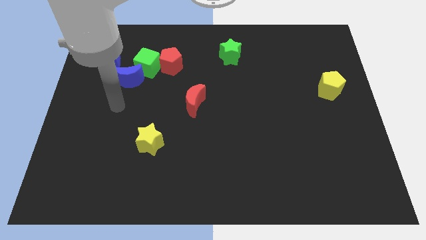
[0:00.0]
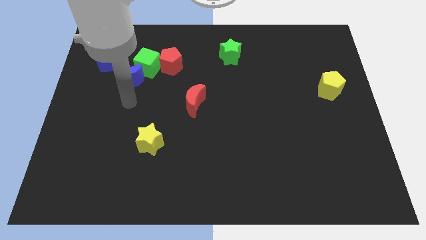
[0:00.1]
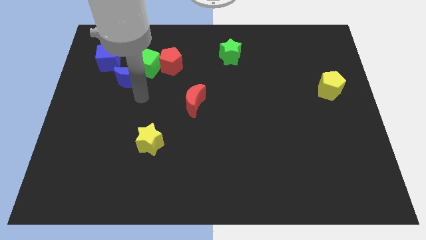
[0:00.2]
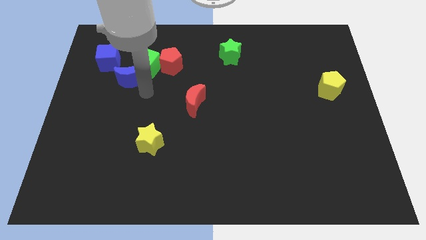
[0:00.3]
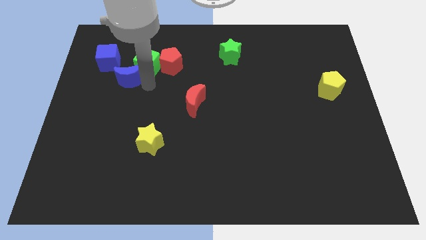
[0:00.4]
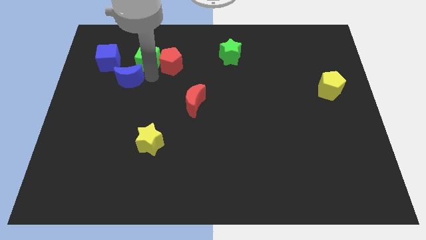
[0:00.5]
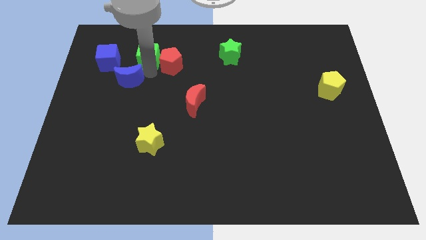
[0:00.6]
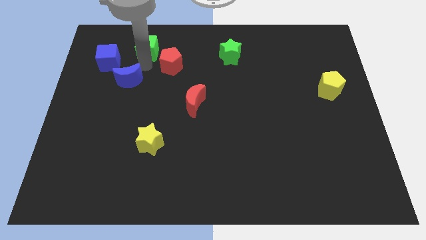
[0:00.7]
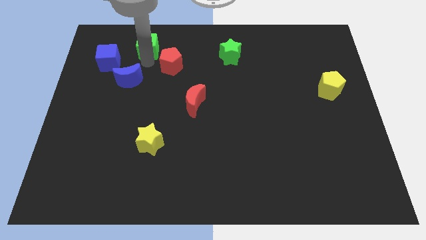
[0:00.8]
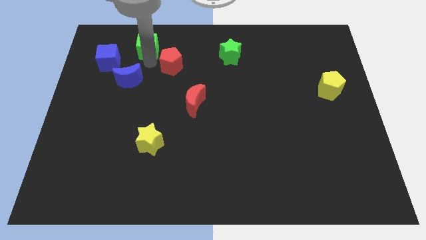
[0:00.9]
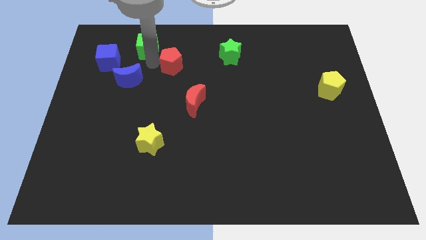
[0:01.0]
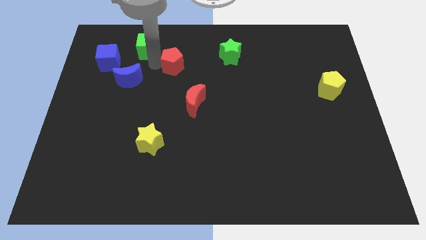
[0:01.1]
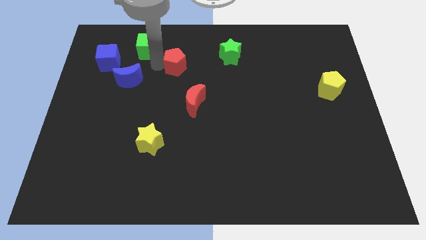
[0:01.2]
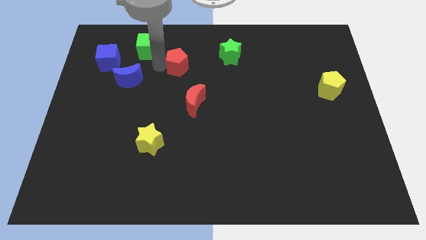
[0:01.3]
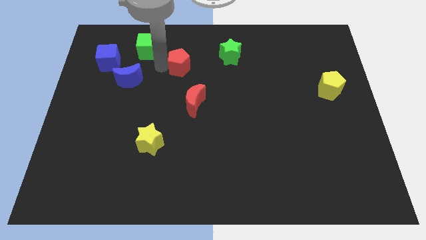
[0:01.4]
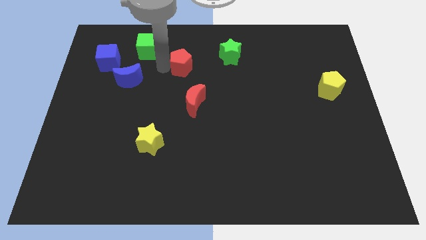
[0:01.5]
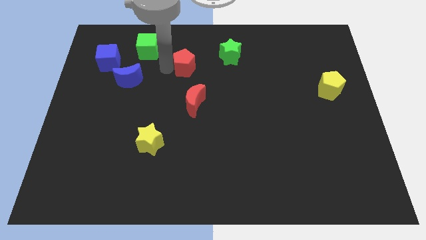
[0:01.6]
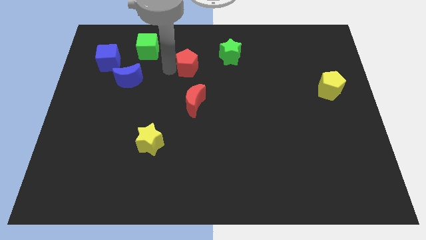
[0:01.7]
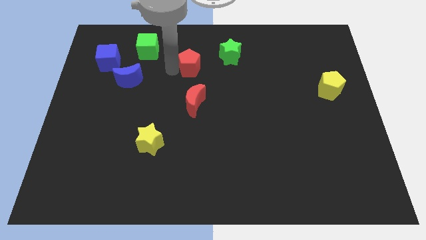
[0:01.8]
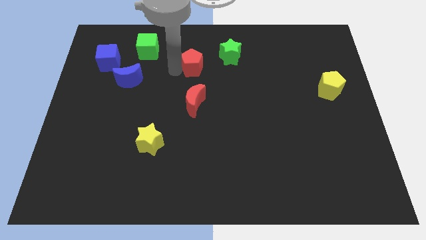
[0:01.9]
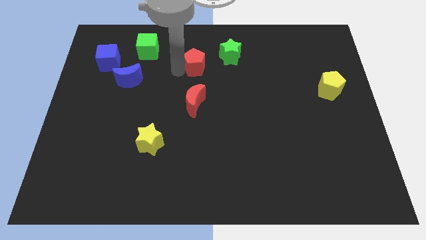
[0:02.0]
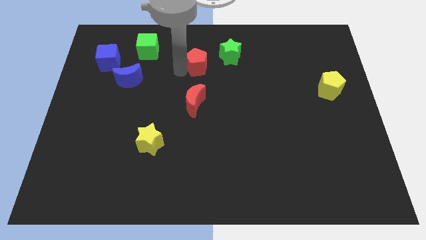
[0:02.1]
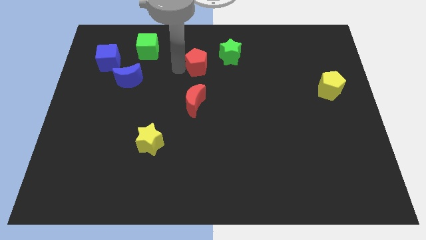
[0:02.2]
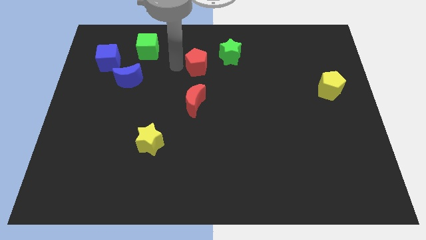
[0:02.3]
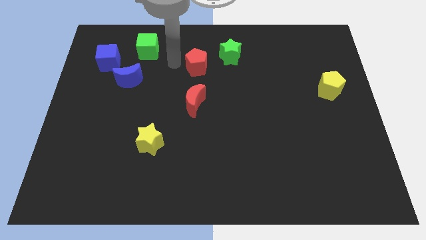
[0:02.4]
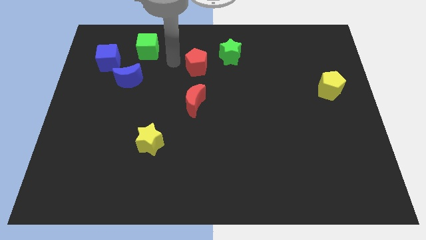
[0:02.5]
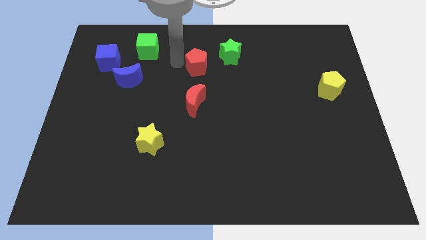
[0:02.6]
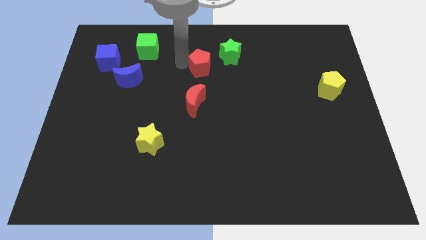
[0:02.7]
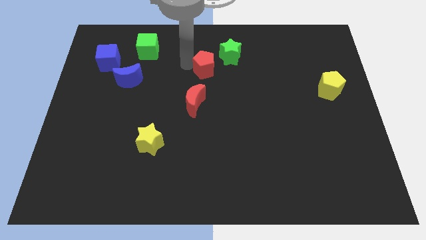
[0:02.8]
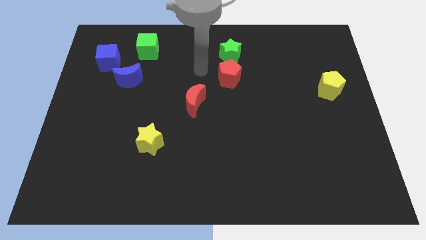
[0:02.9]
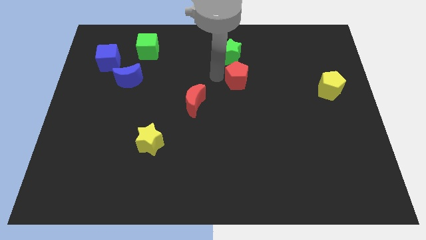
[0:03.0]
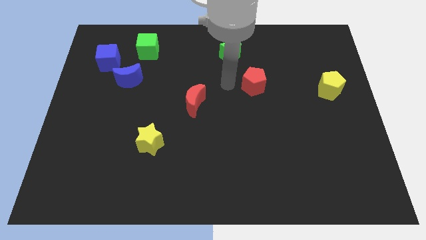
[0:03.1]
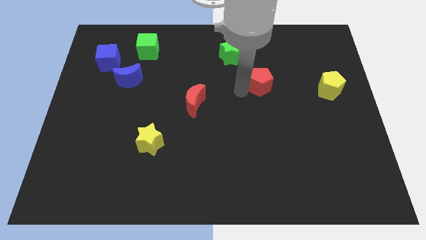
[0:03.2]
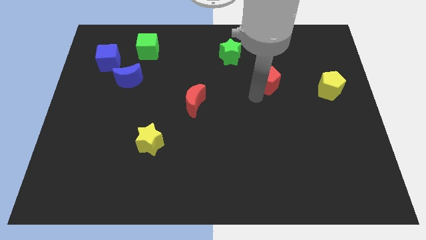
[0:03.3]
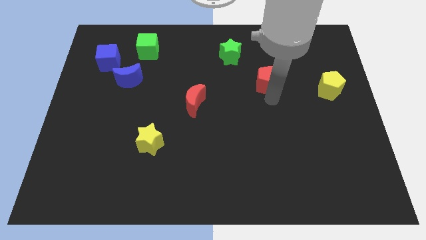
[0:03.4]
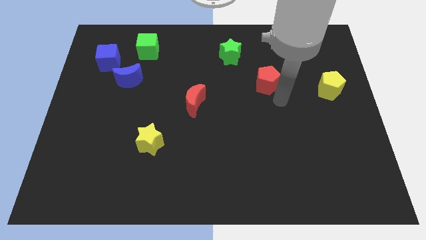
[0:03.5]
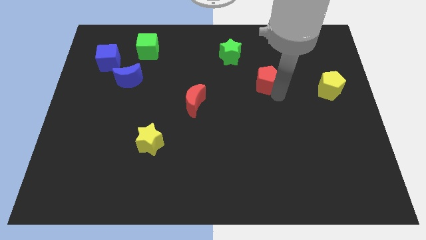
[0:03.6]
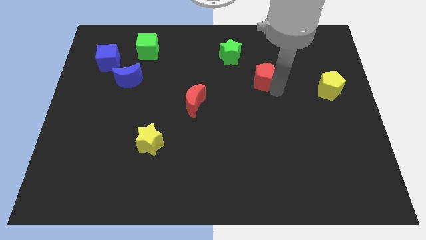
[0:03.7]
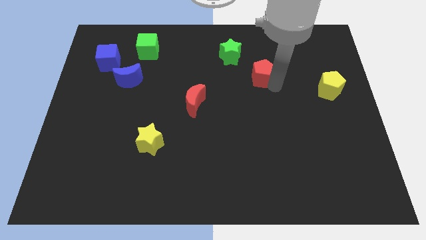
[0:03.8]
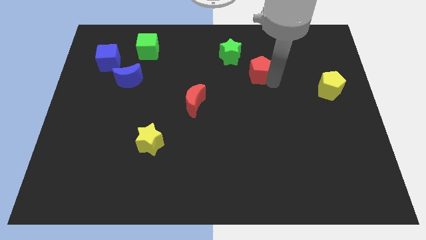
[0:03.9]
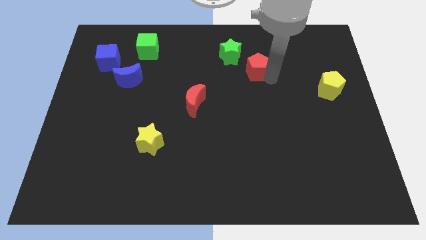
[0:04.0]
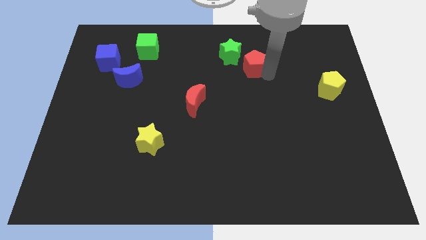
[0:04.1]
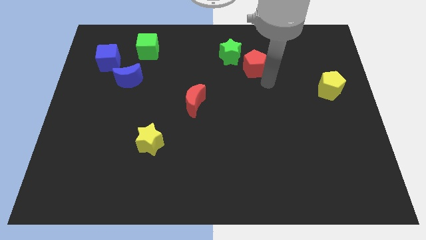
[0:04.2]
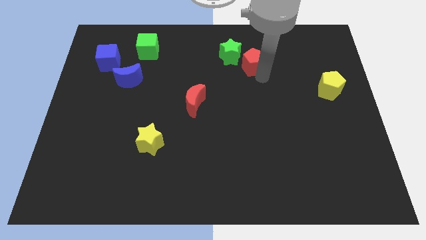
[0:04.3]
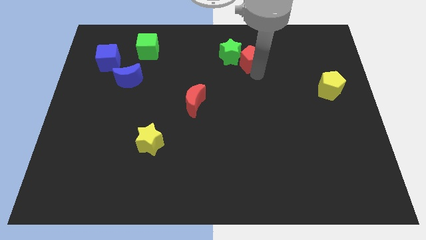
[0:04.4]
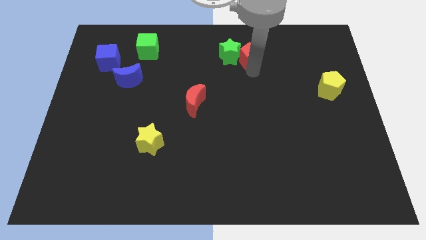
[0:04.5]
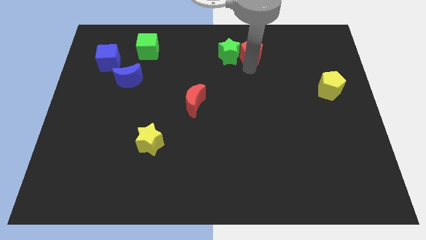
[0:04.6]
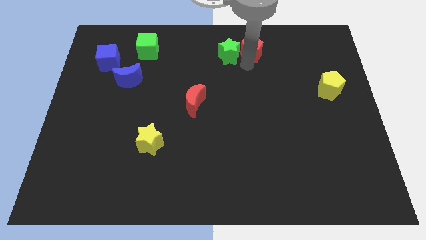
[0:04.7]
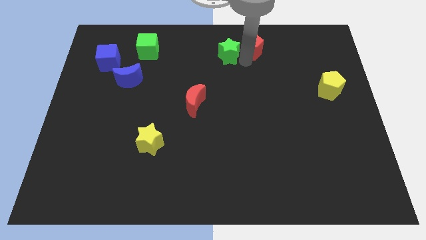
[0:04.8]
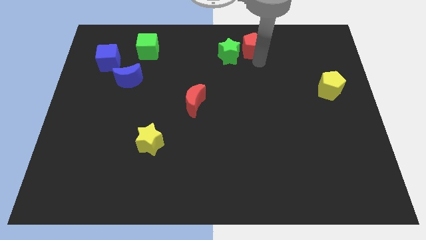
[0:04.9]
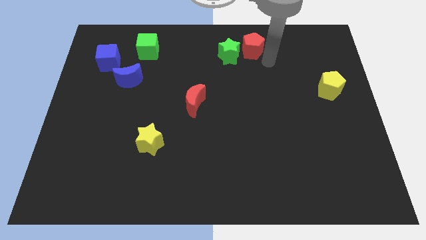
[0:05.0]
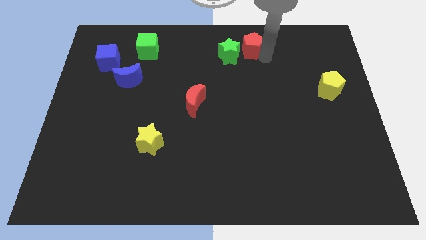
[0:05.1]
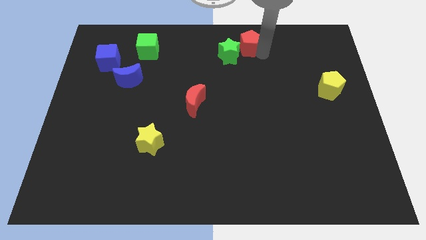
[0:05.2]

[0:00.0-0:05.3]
push the red pentagon to the top

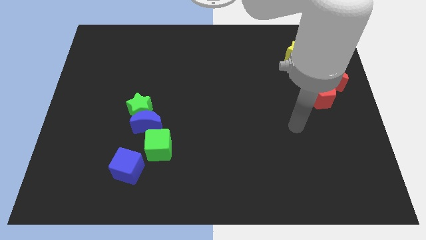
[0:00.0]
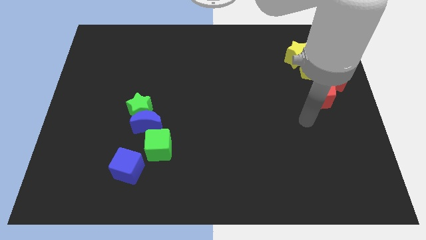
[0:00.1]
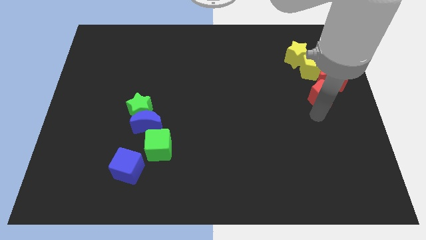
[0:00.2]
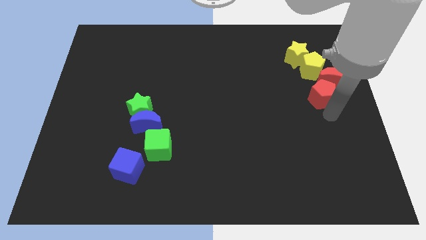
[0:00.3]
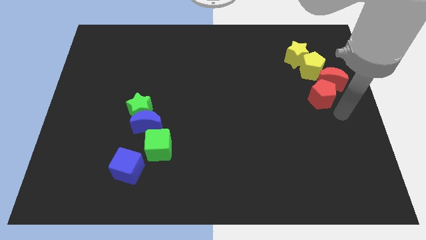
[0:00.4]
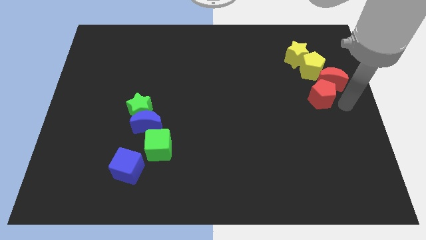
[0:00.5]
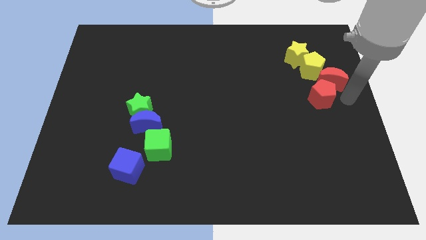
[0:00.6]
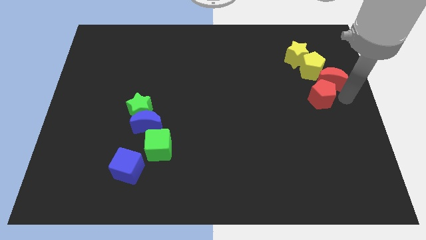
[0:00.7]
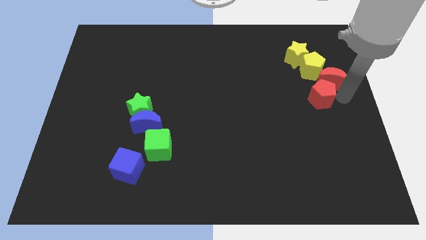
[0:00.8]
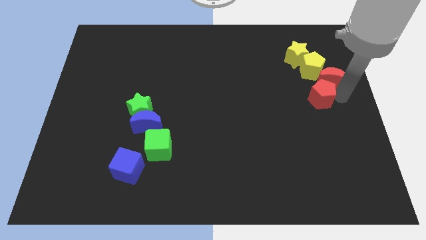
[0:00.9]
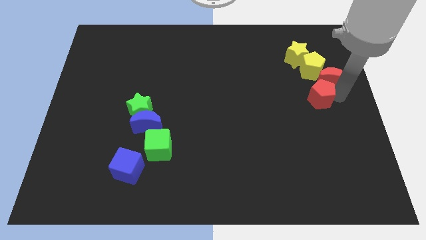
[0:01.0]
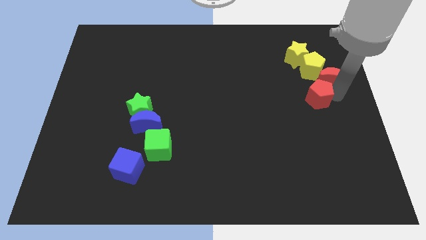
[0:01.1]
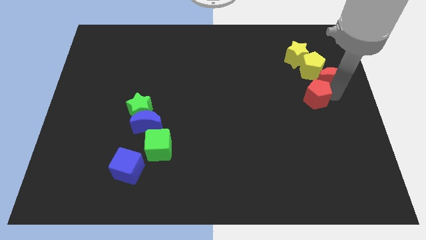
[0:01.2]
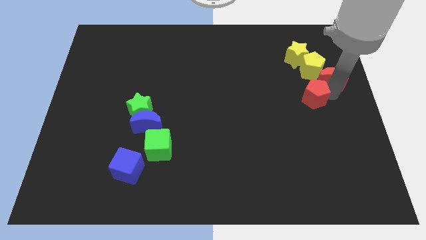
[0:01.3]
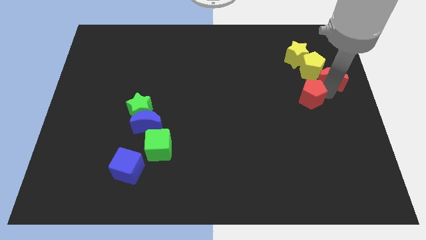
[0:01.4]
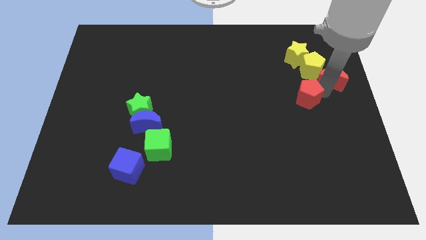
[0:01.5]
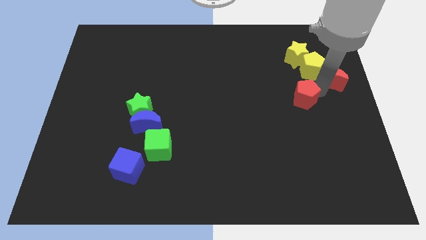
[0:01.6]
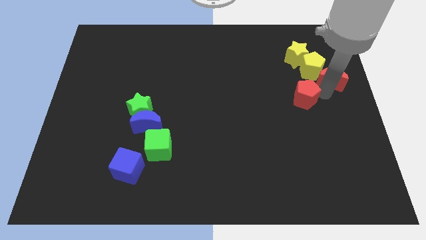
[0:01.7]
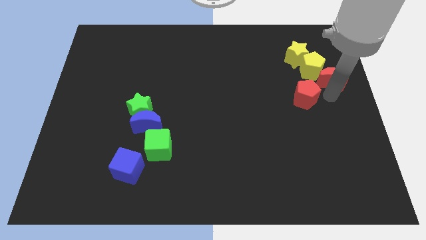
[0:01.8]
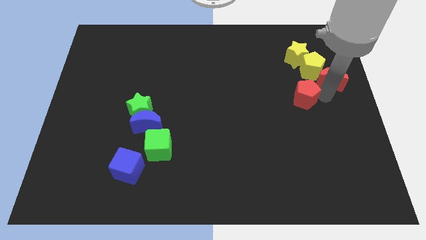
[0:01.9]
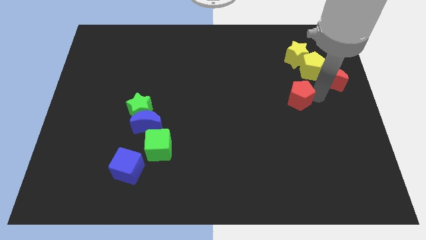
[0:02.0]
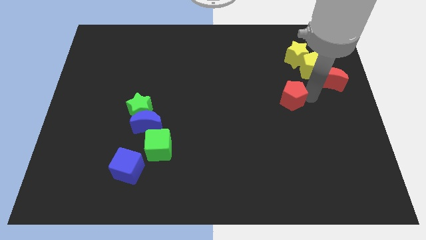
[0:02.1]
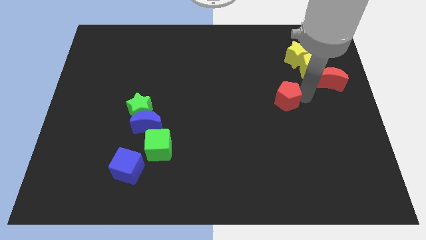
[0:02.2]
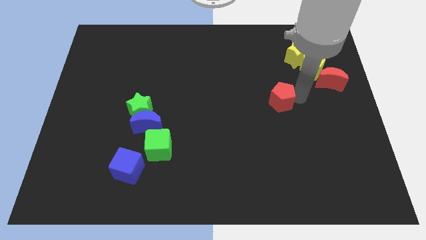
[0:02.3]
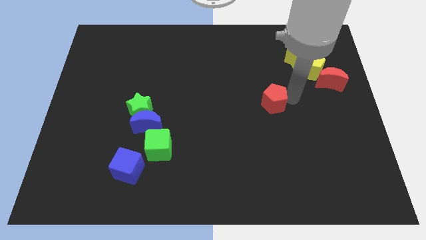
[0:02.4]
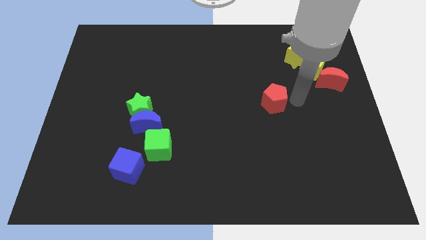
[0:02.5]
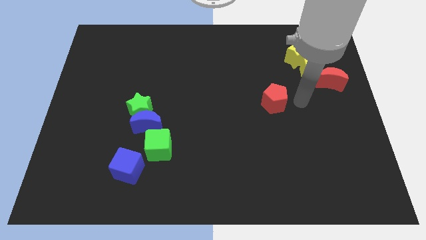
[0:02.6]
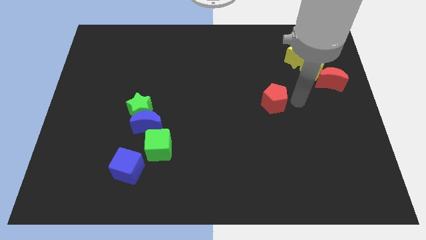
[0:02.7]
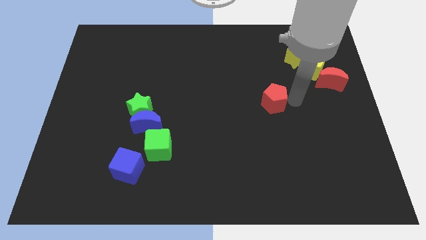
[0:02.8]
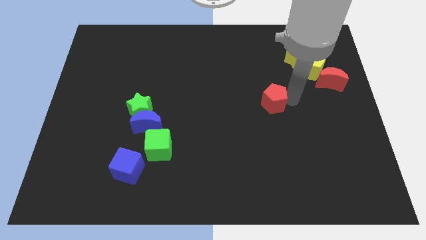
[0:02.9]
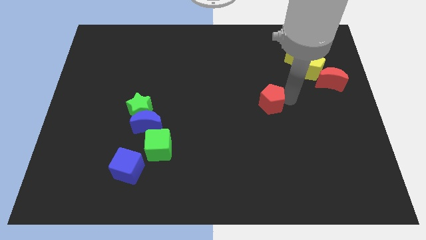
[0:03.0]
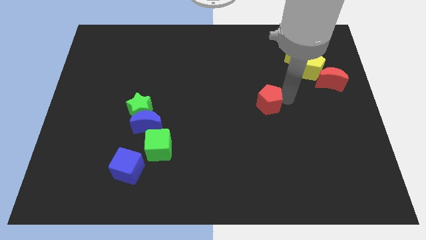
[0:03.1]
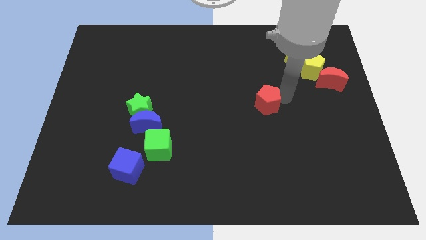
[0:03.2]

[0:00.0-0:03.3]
move the red pentagon to the center
